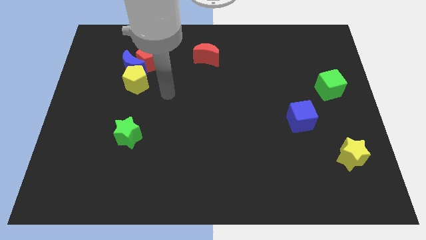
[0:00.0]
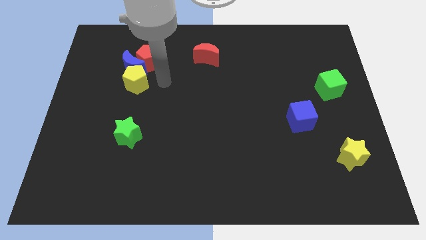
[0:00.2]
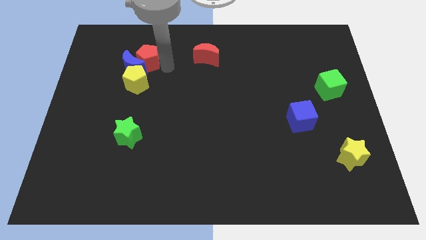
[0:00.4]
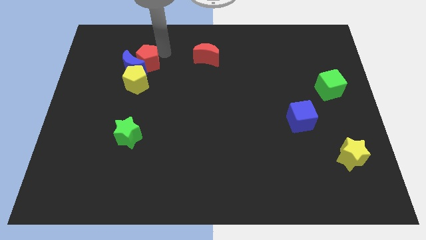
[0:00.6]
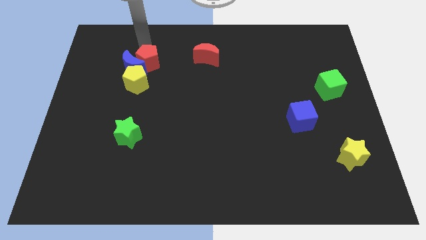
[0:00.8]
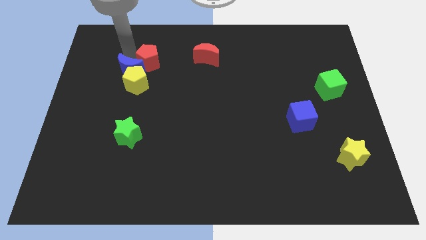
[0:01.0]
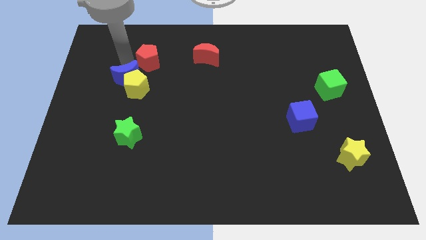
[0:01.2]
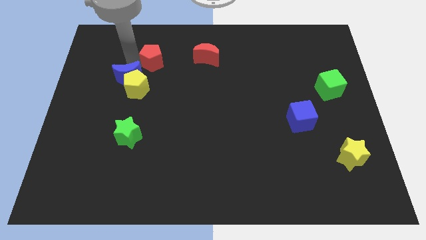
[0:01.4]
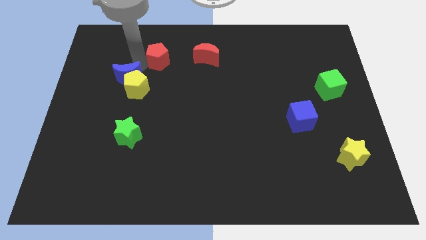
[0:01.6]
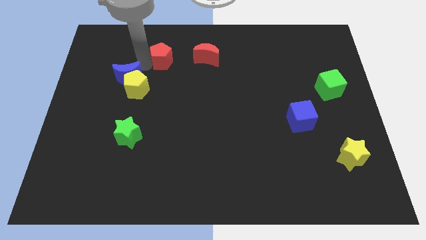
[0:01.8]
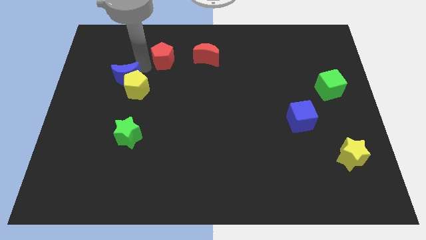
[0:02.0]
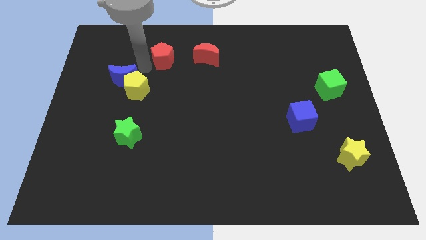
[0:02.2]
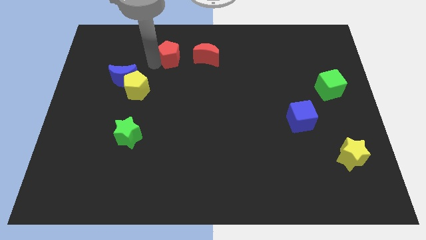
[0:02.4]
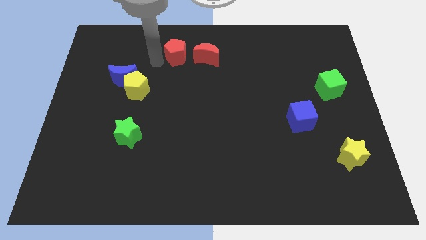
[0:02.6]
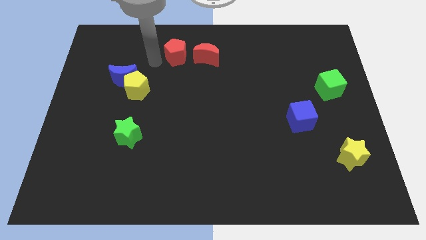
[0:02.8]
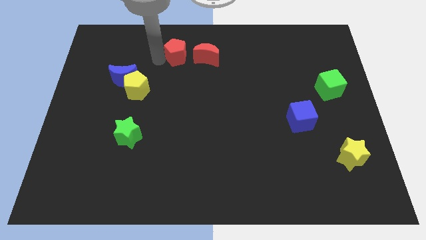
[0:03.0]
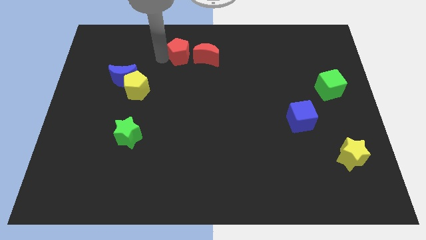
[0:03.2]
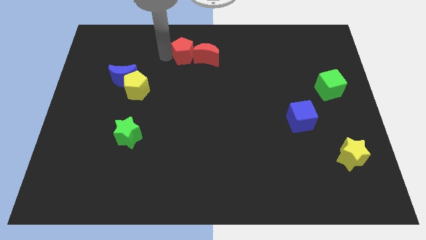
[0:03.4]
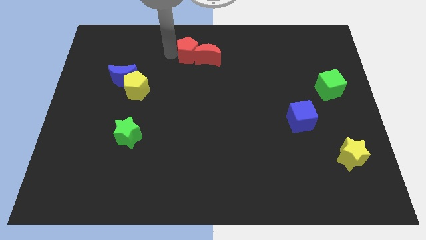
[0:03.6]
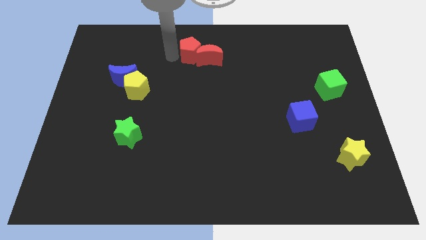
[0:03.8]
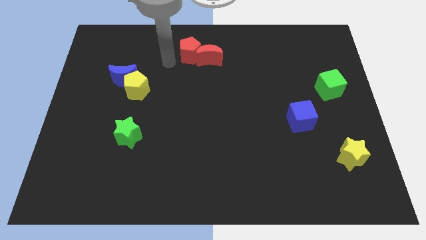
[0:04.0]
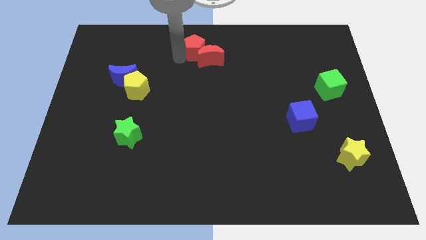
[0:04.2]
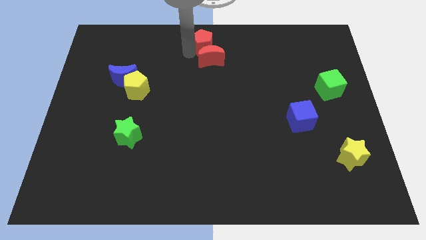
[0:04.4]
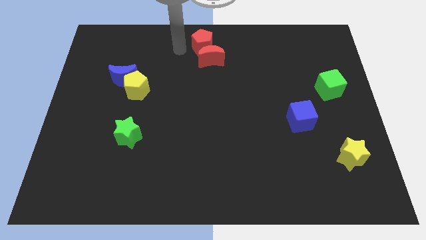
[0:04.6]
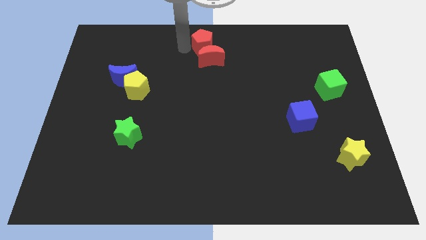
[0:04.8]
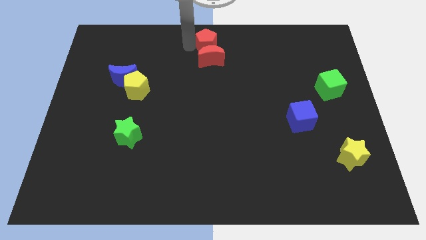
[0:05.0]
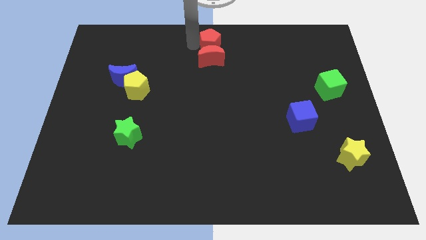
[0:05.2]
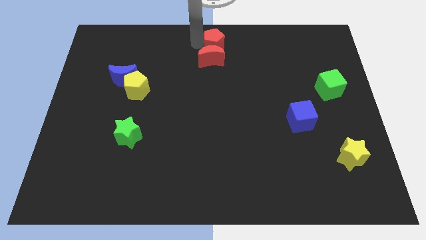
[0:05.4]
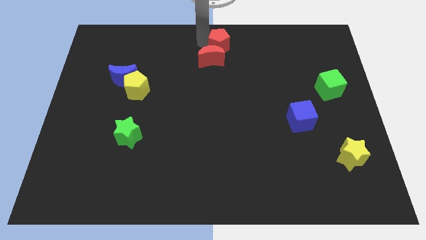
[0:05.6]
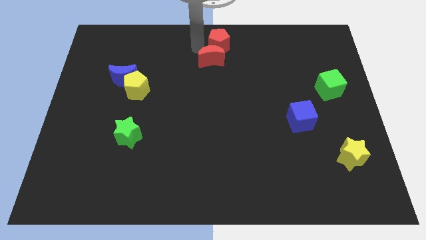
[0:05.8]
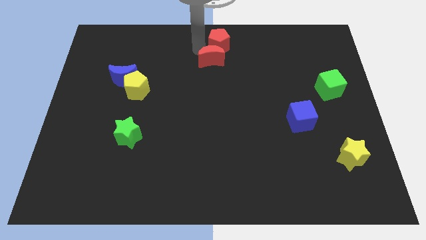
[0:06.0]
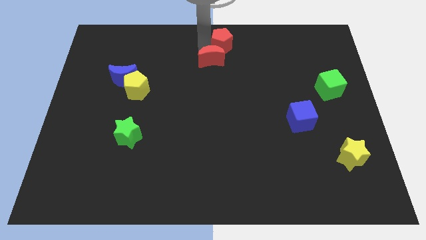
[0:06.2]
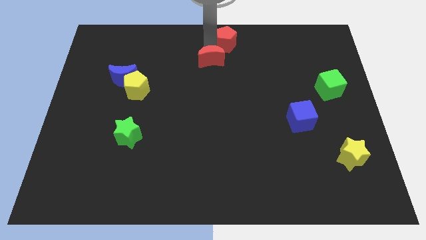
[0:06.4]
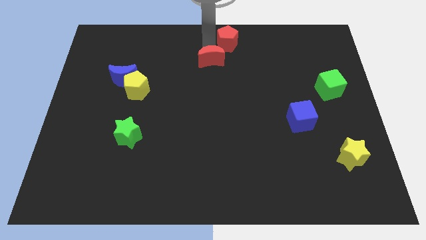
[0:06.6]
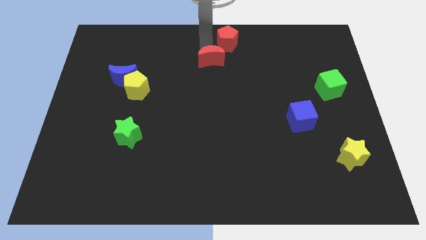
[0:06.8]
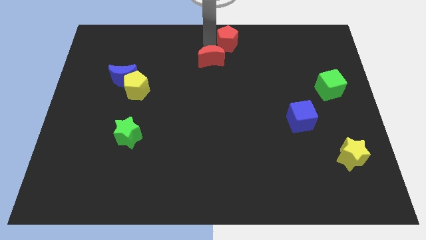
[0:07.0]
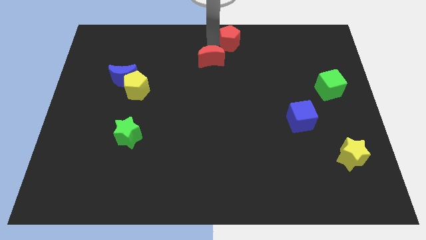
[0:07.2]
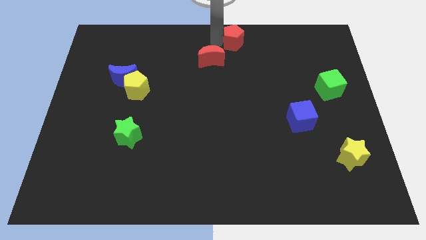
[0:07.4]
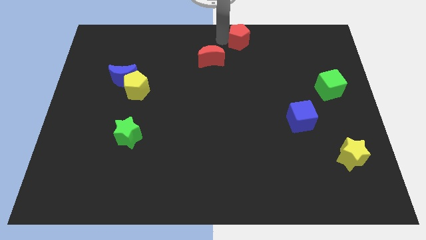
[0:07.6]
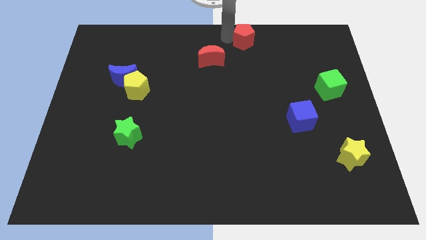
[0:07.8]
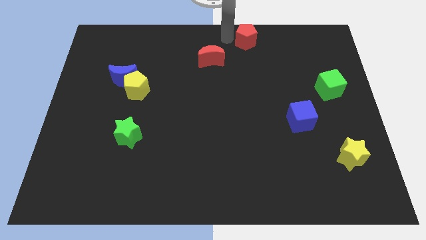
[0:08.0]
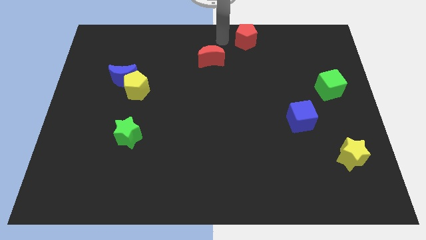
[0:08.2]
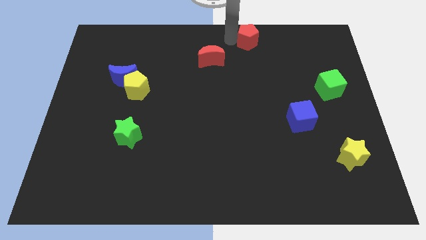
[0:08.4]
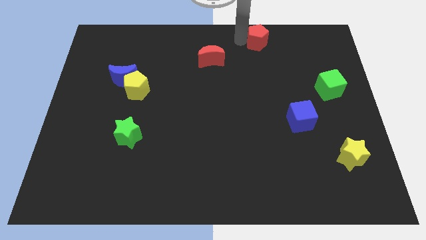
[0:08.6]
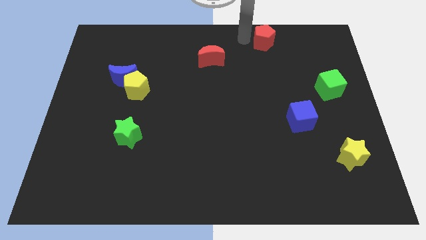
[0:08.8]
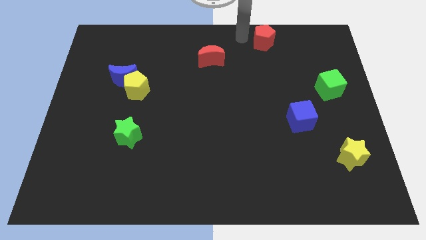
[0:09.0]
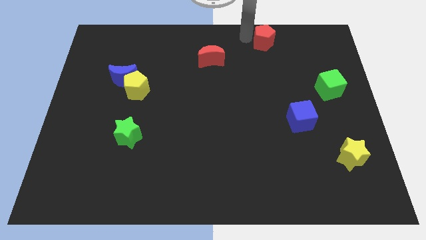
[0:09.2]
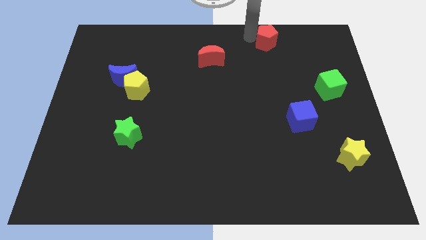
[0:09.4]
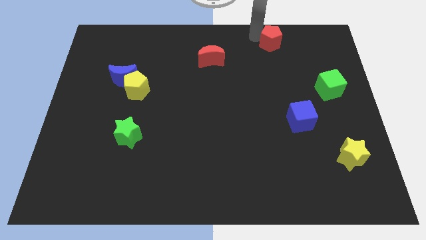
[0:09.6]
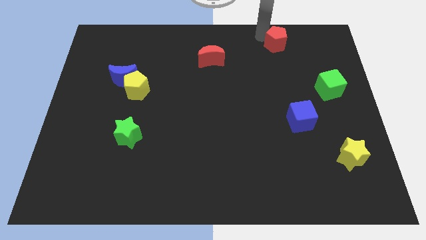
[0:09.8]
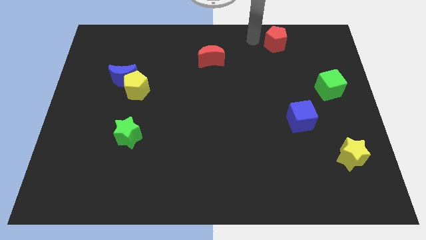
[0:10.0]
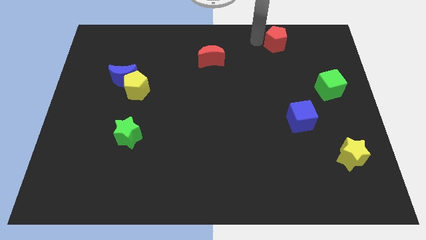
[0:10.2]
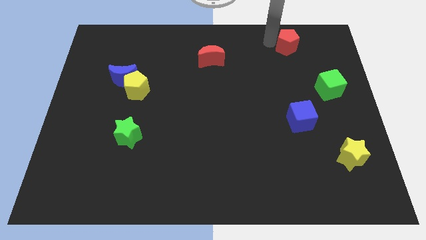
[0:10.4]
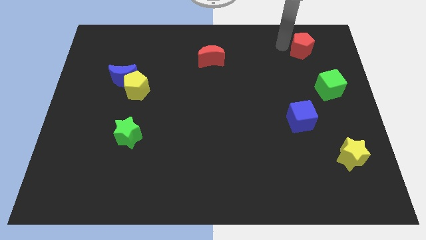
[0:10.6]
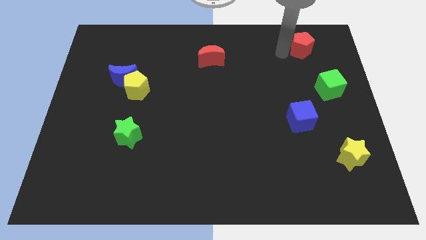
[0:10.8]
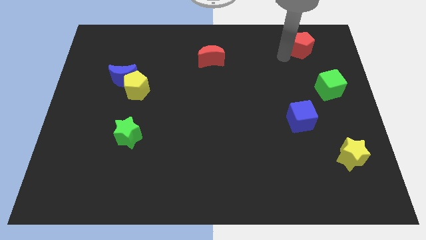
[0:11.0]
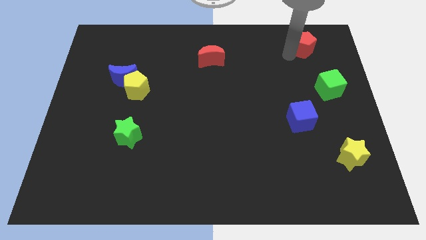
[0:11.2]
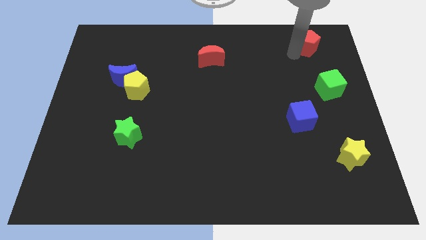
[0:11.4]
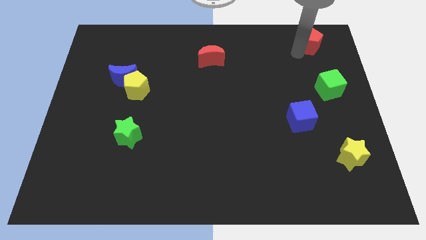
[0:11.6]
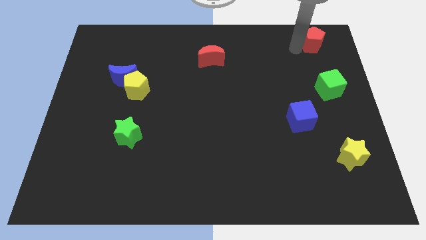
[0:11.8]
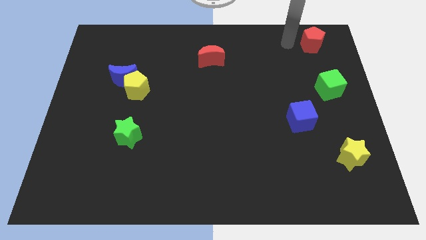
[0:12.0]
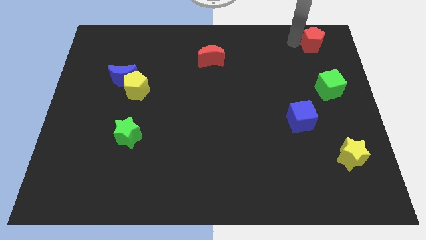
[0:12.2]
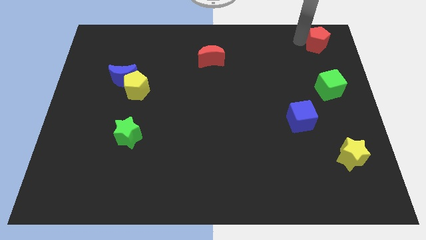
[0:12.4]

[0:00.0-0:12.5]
slide the red pentagon to the top right corner
